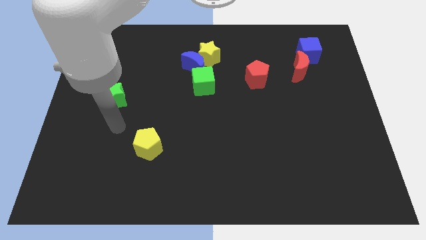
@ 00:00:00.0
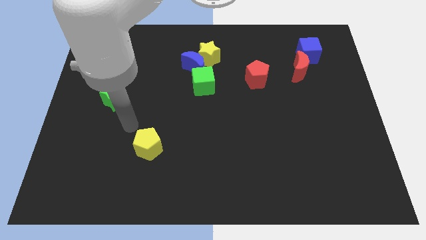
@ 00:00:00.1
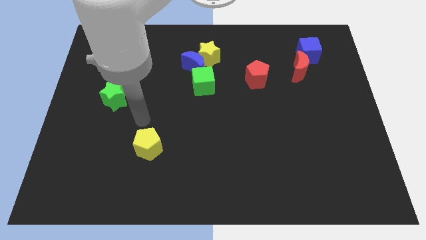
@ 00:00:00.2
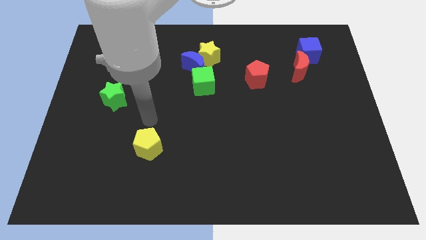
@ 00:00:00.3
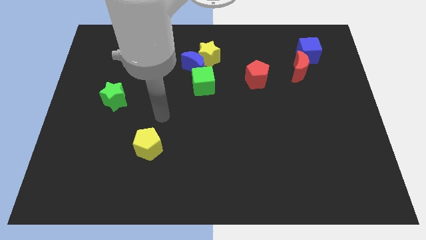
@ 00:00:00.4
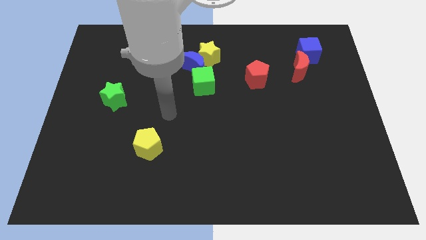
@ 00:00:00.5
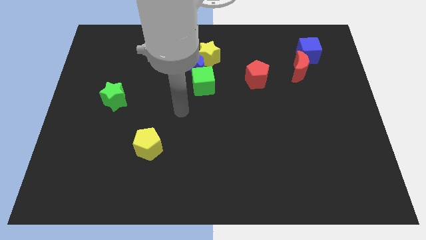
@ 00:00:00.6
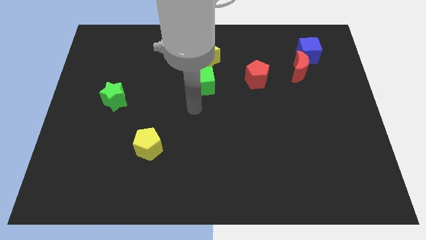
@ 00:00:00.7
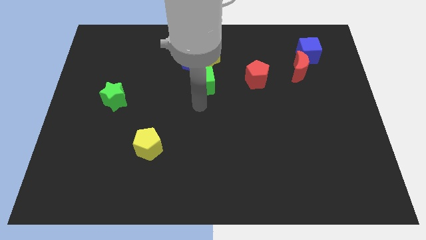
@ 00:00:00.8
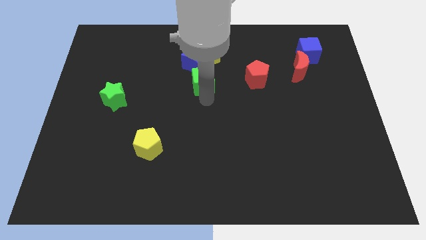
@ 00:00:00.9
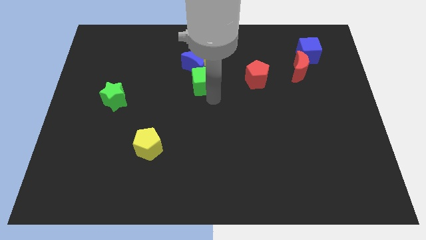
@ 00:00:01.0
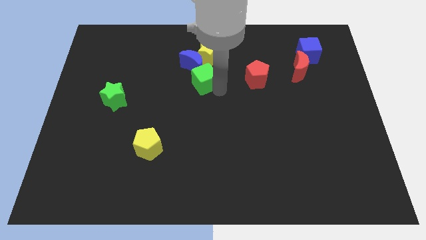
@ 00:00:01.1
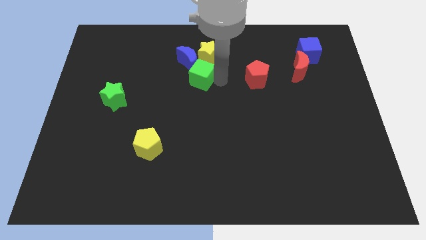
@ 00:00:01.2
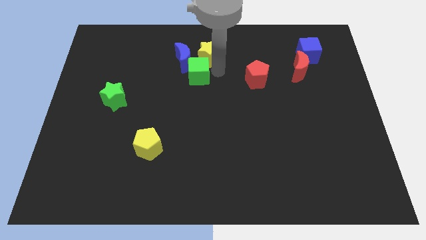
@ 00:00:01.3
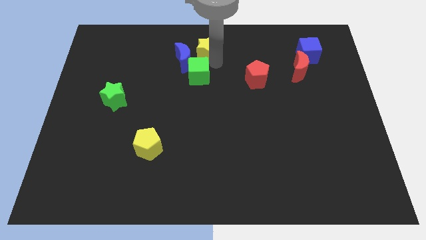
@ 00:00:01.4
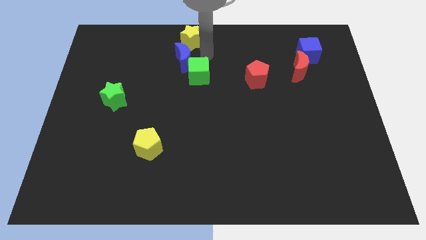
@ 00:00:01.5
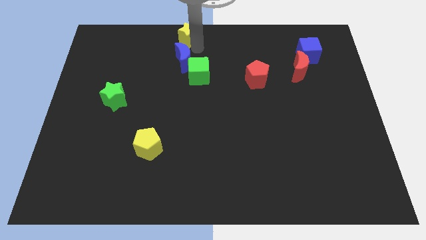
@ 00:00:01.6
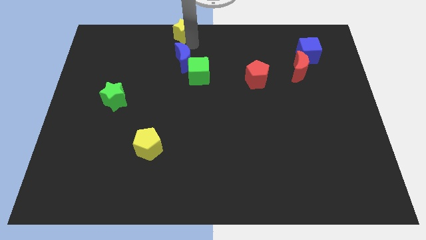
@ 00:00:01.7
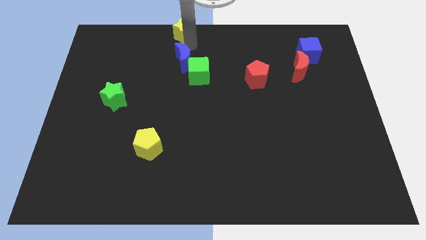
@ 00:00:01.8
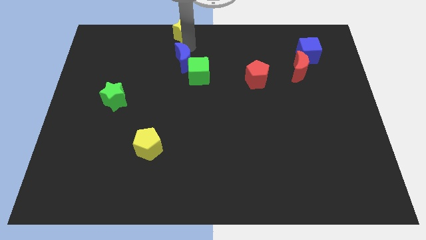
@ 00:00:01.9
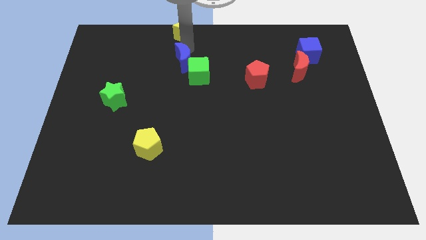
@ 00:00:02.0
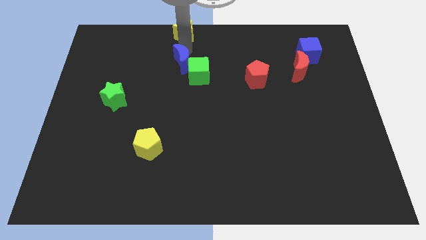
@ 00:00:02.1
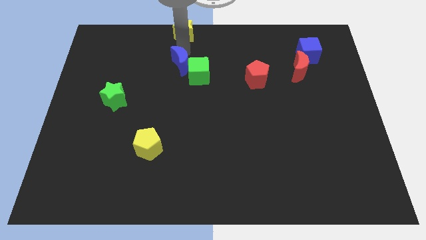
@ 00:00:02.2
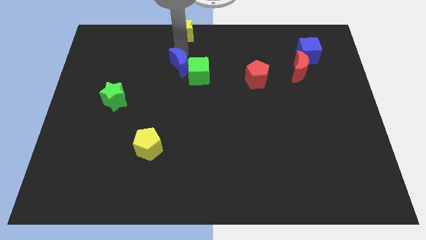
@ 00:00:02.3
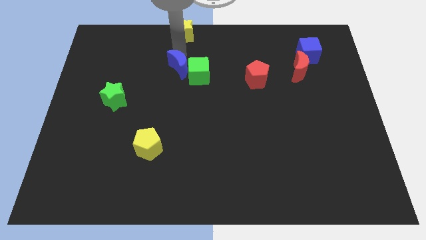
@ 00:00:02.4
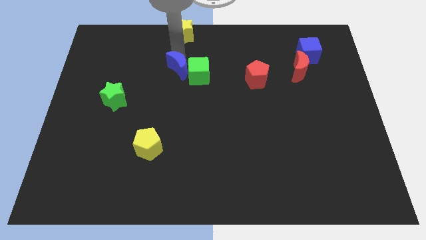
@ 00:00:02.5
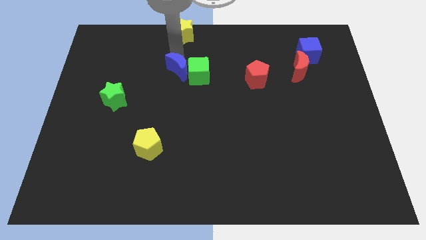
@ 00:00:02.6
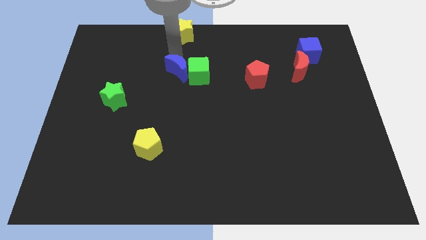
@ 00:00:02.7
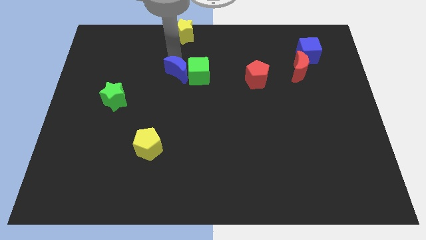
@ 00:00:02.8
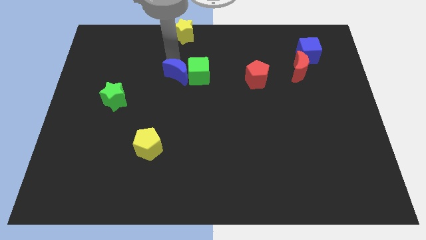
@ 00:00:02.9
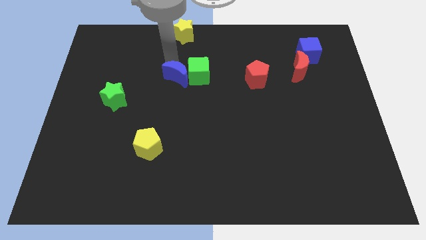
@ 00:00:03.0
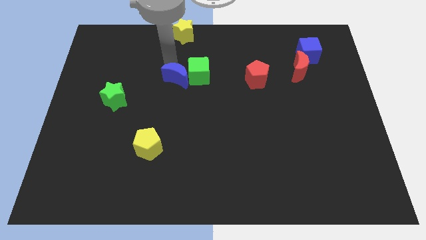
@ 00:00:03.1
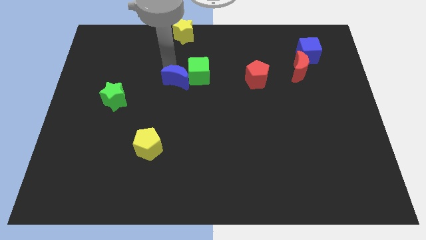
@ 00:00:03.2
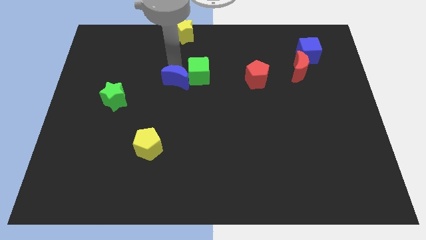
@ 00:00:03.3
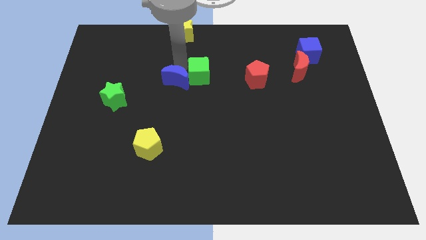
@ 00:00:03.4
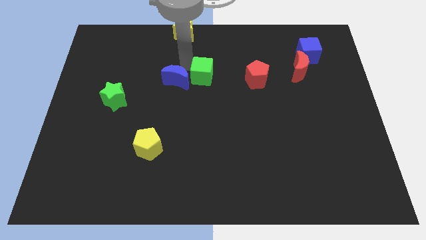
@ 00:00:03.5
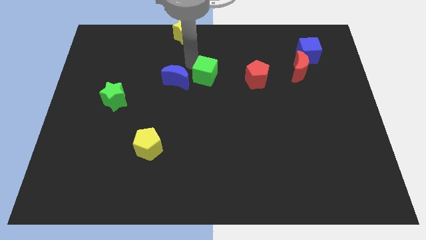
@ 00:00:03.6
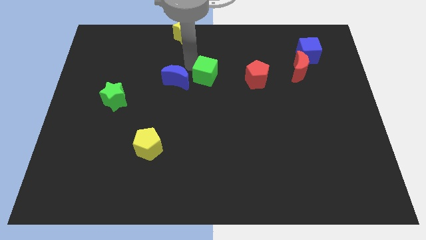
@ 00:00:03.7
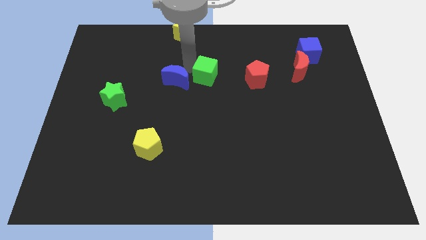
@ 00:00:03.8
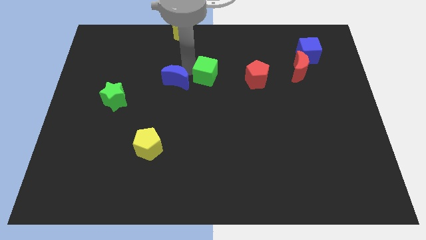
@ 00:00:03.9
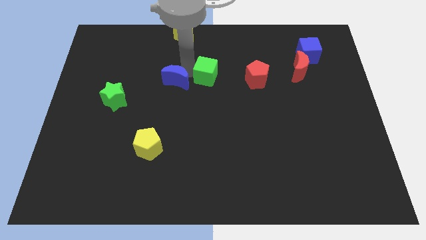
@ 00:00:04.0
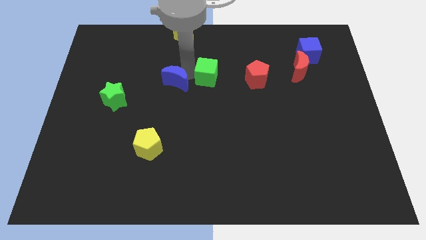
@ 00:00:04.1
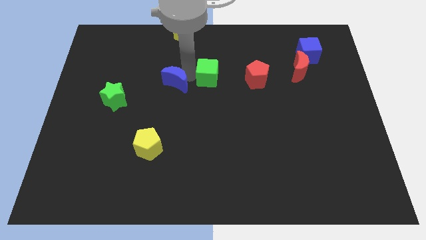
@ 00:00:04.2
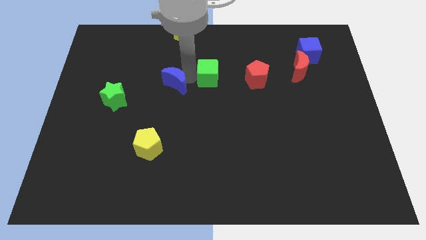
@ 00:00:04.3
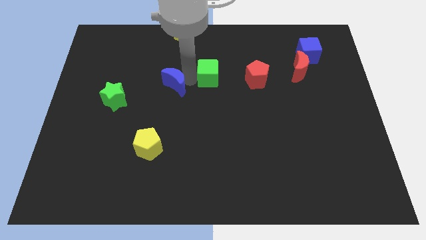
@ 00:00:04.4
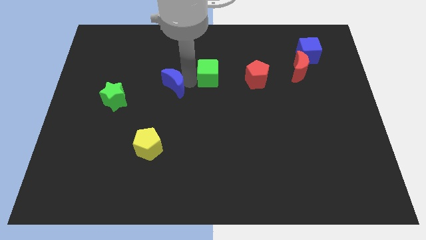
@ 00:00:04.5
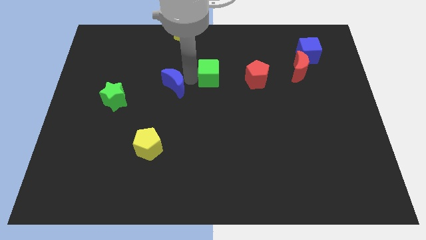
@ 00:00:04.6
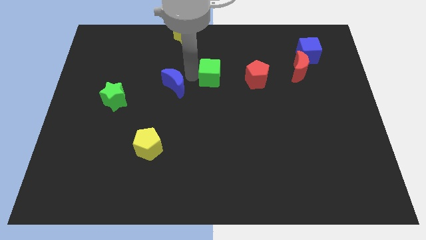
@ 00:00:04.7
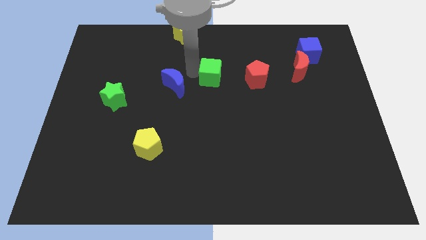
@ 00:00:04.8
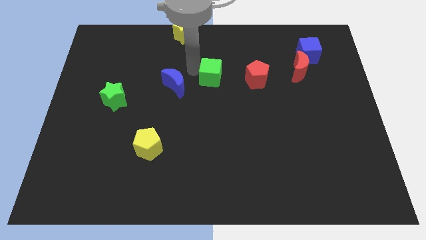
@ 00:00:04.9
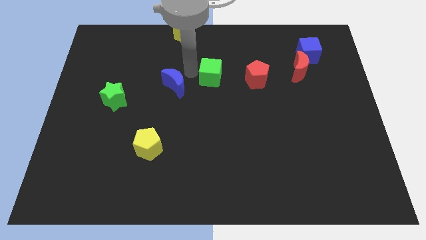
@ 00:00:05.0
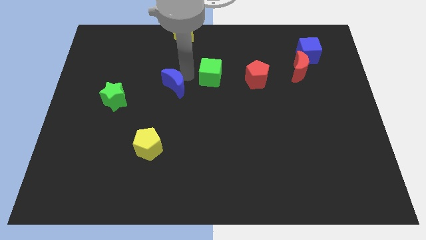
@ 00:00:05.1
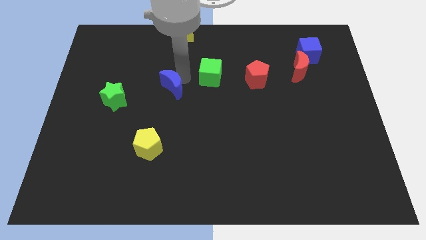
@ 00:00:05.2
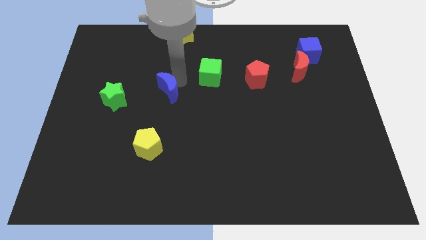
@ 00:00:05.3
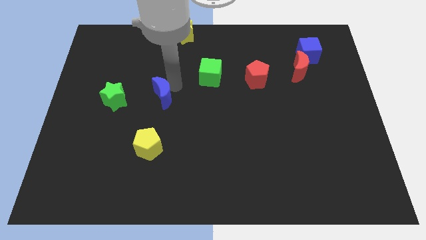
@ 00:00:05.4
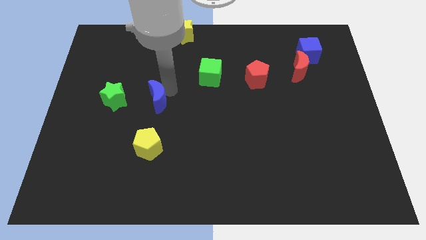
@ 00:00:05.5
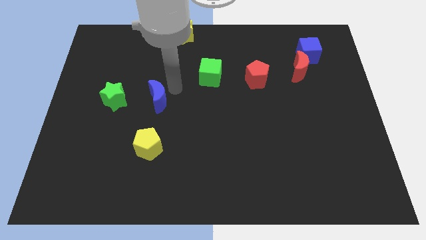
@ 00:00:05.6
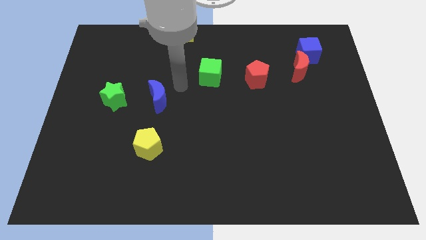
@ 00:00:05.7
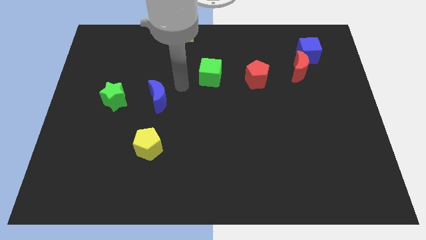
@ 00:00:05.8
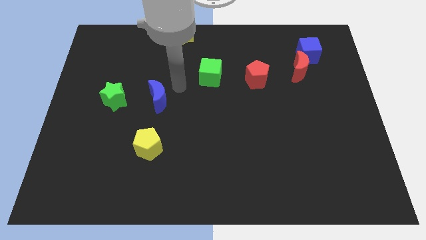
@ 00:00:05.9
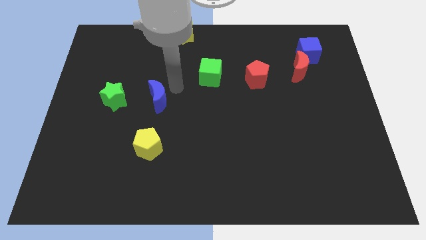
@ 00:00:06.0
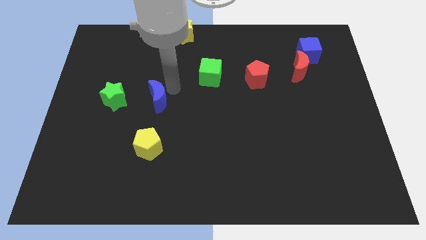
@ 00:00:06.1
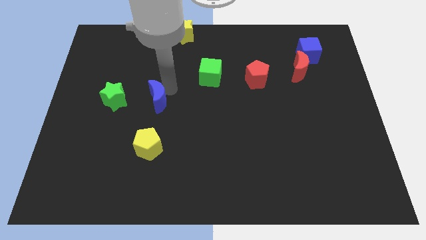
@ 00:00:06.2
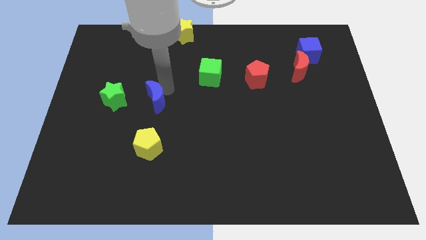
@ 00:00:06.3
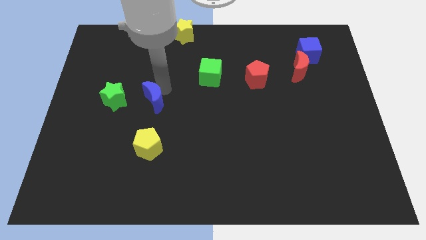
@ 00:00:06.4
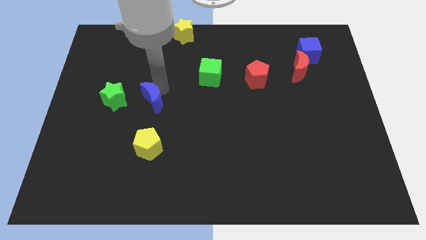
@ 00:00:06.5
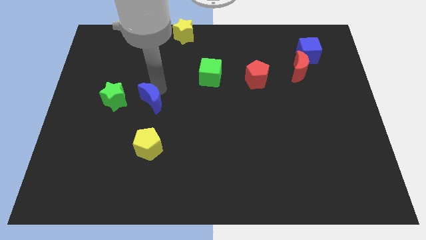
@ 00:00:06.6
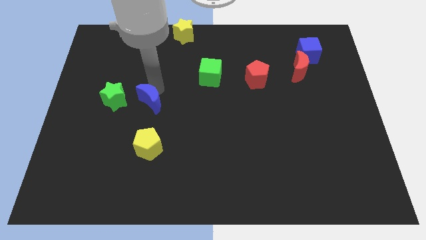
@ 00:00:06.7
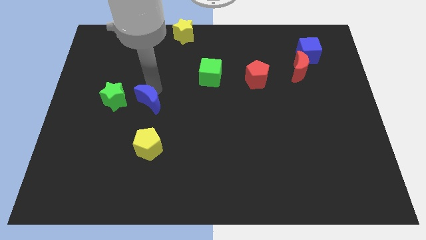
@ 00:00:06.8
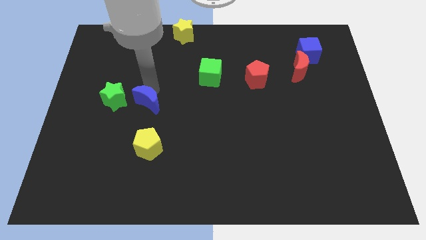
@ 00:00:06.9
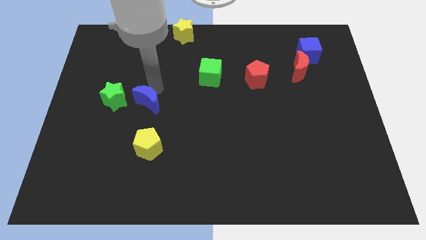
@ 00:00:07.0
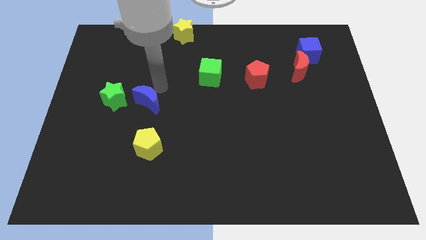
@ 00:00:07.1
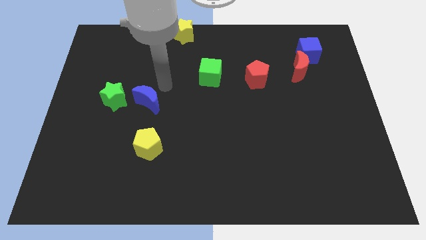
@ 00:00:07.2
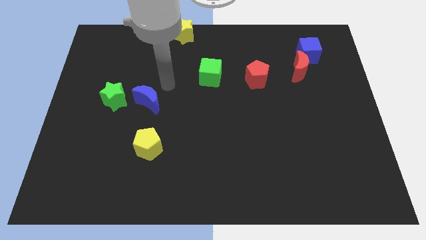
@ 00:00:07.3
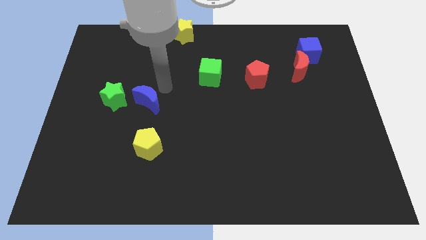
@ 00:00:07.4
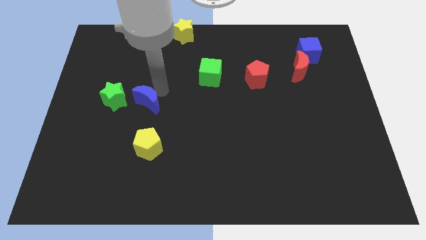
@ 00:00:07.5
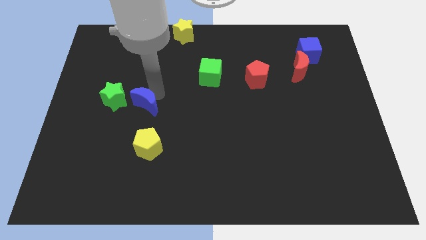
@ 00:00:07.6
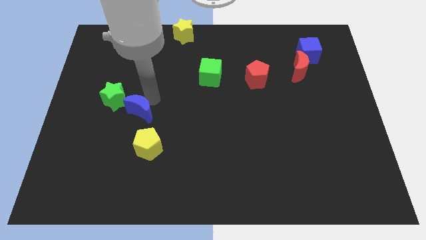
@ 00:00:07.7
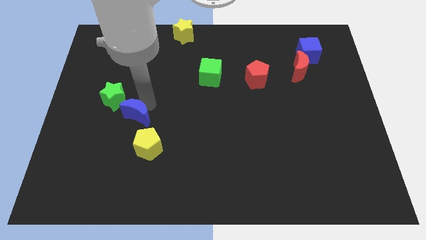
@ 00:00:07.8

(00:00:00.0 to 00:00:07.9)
push the blue moon diagonally down and left
